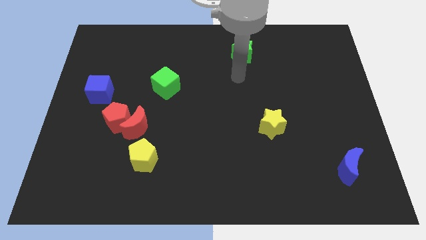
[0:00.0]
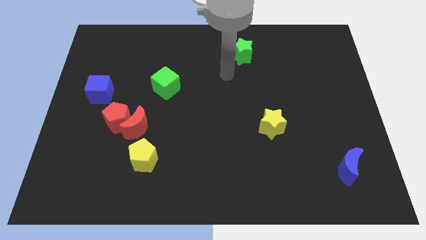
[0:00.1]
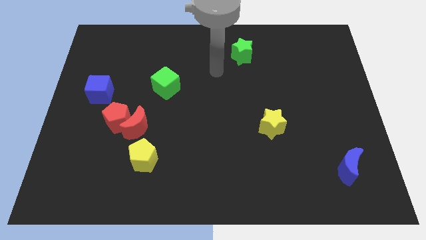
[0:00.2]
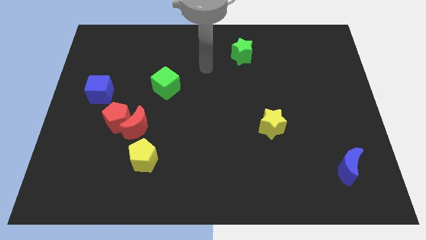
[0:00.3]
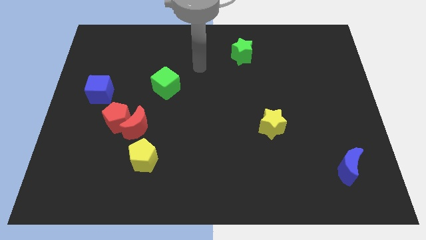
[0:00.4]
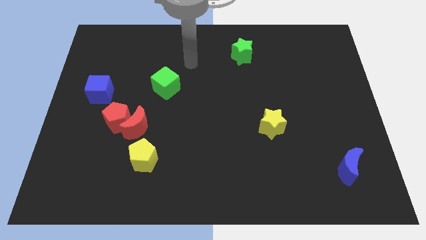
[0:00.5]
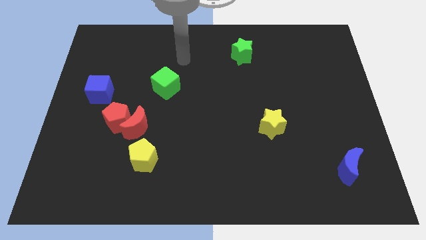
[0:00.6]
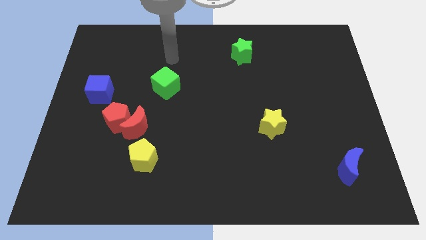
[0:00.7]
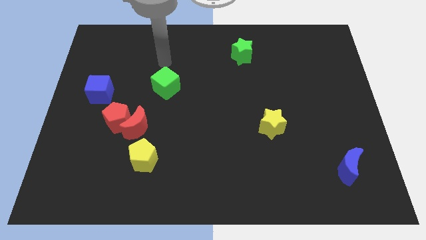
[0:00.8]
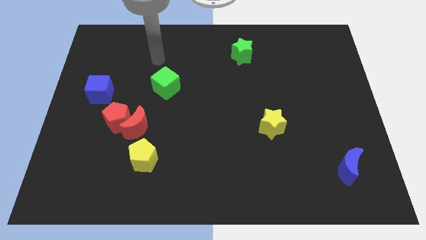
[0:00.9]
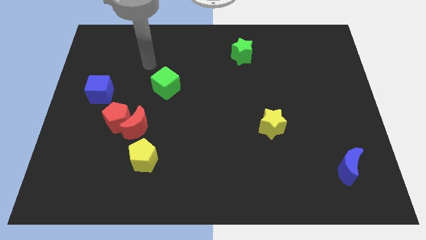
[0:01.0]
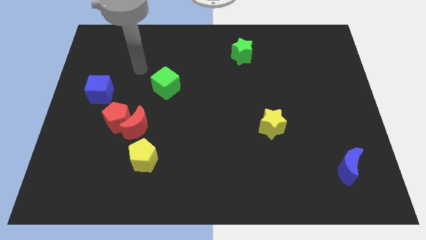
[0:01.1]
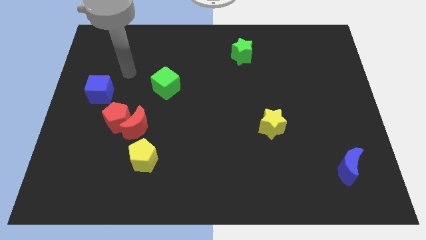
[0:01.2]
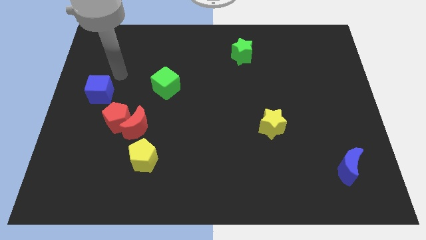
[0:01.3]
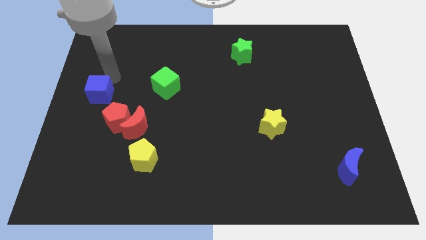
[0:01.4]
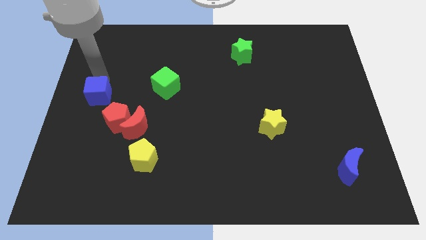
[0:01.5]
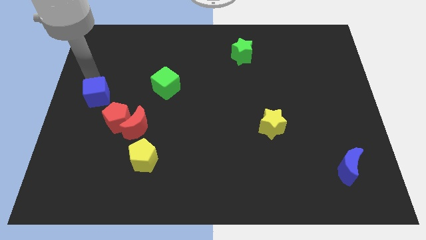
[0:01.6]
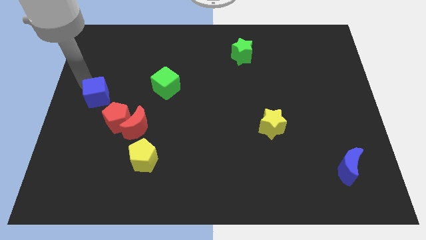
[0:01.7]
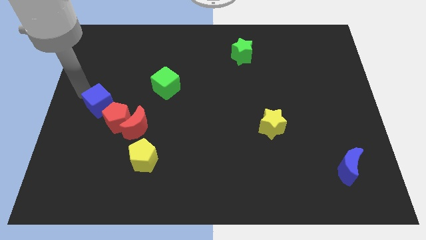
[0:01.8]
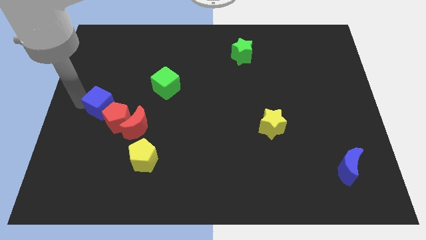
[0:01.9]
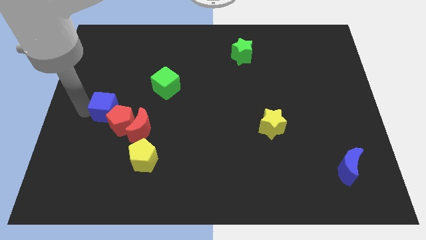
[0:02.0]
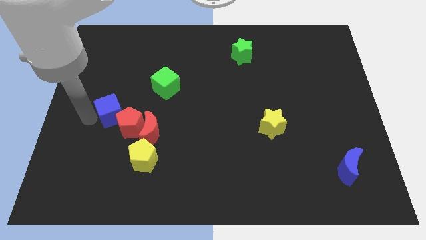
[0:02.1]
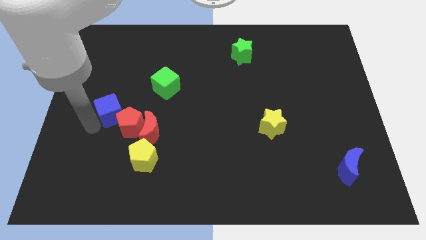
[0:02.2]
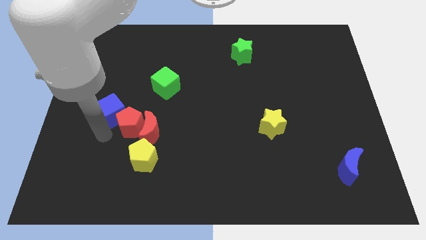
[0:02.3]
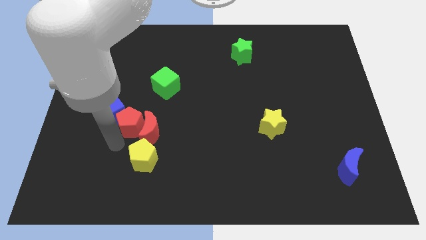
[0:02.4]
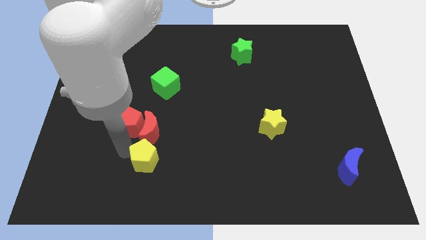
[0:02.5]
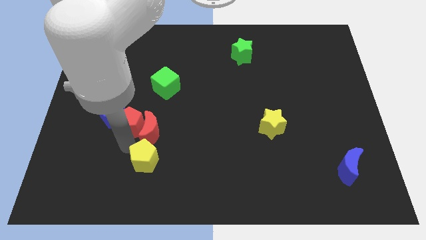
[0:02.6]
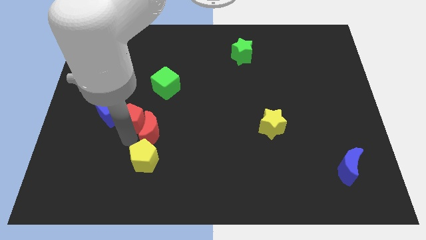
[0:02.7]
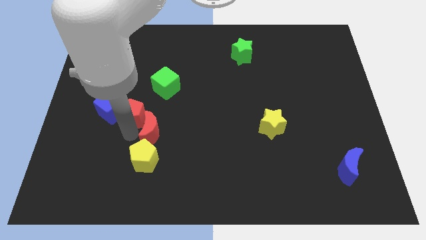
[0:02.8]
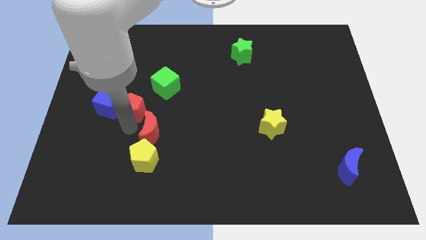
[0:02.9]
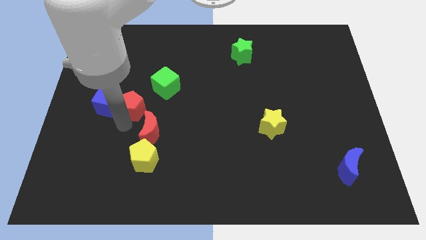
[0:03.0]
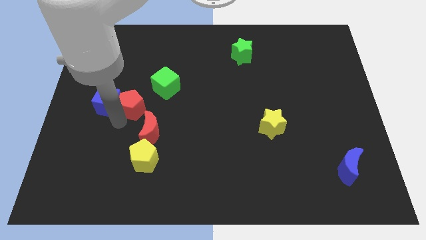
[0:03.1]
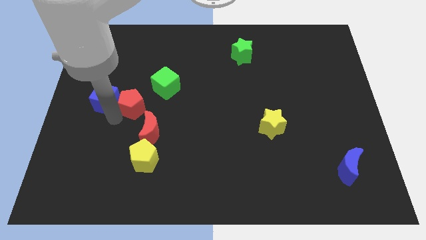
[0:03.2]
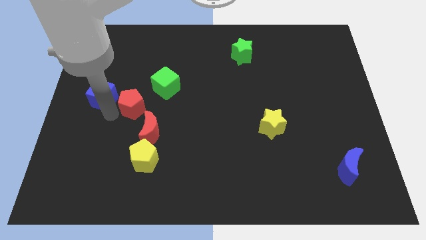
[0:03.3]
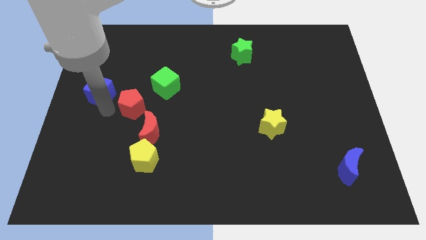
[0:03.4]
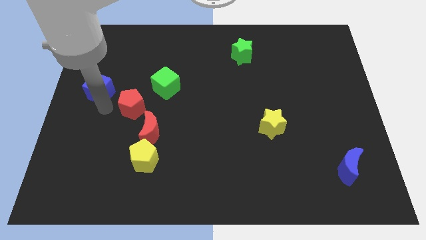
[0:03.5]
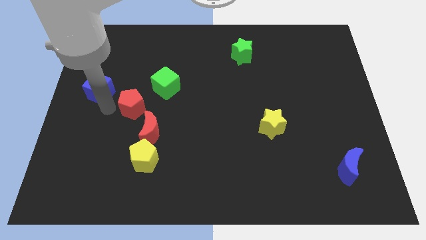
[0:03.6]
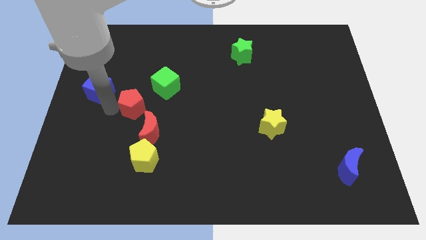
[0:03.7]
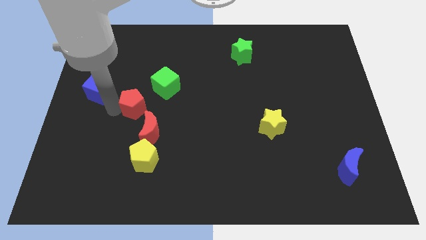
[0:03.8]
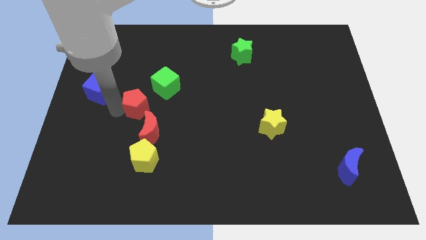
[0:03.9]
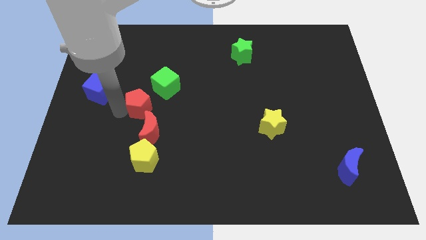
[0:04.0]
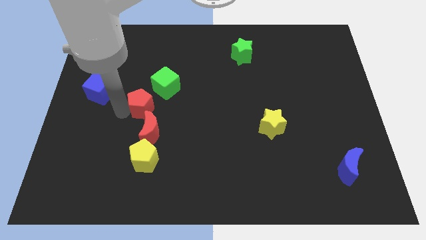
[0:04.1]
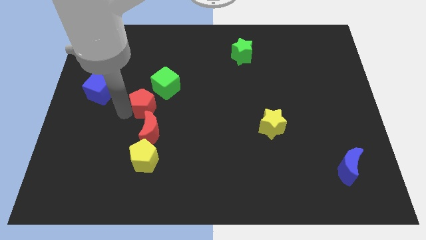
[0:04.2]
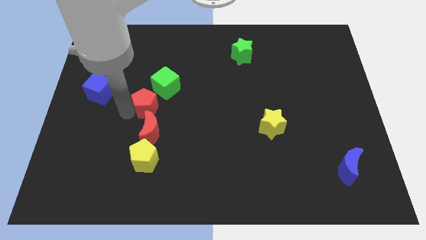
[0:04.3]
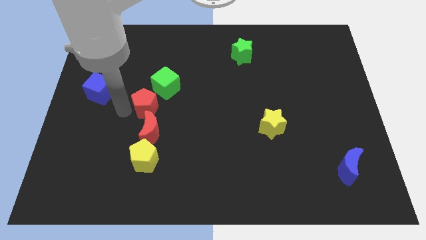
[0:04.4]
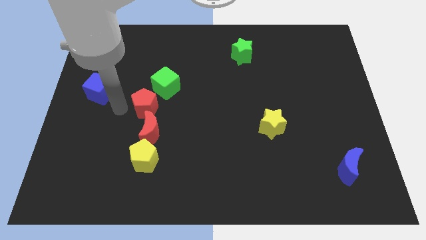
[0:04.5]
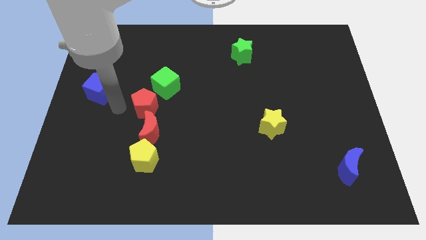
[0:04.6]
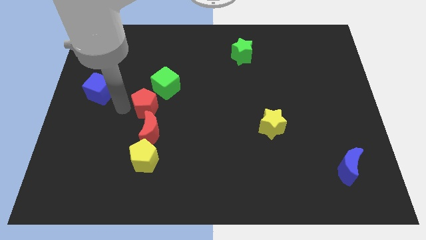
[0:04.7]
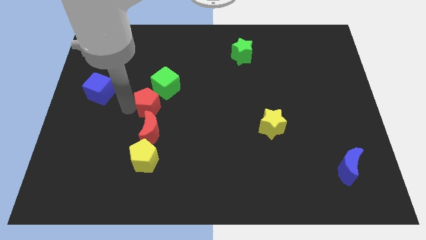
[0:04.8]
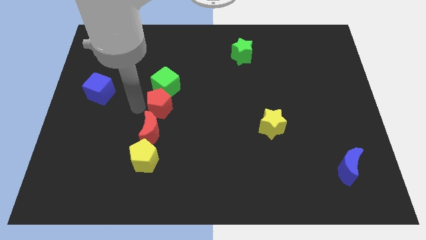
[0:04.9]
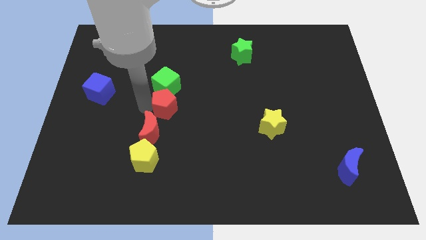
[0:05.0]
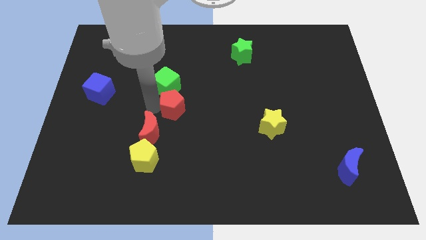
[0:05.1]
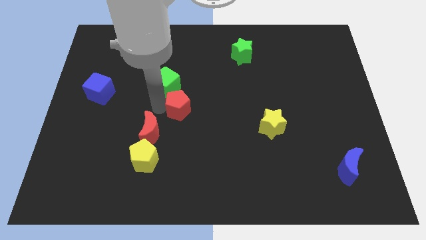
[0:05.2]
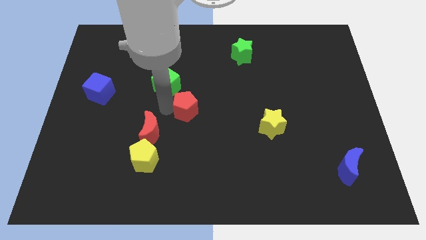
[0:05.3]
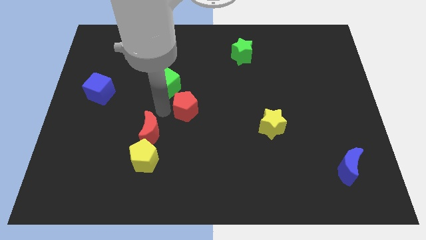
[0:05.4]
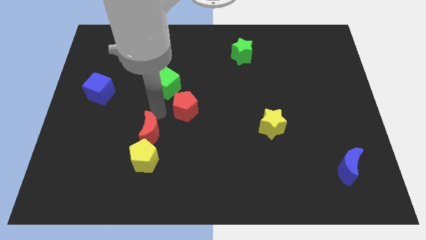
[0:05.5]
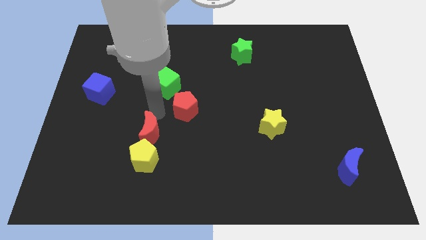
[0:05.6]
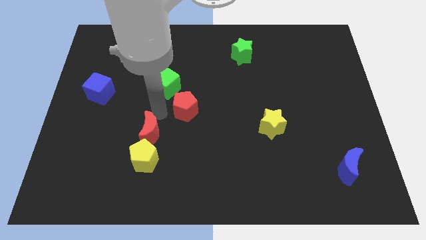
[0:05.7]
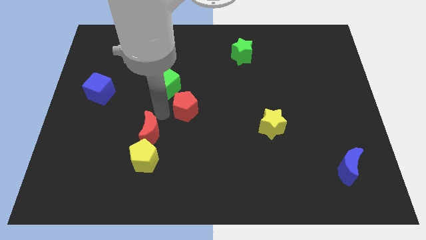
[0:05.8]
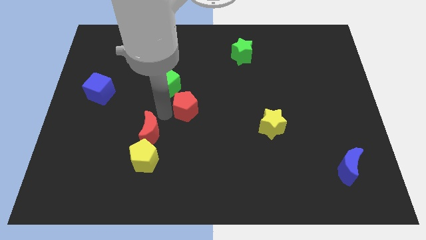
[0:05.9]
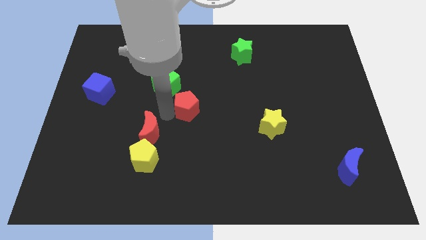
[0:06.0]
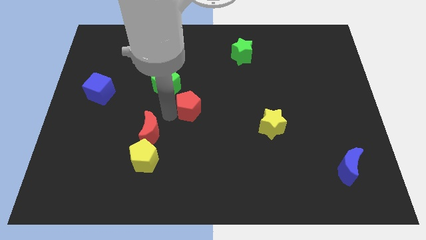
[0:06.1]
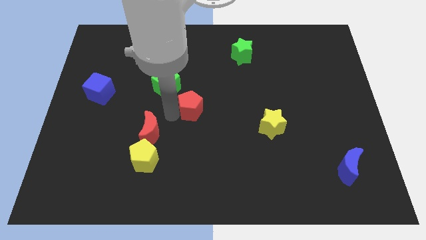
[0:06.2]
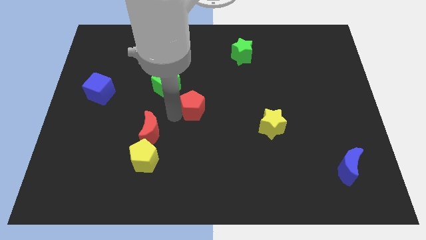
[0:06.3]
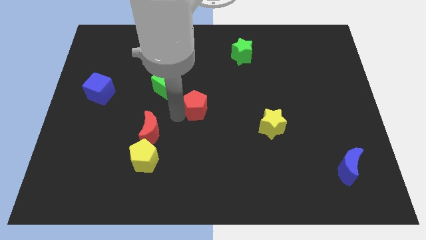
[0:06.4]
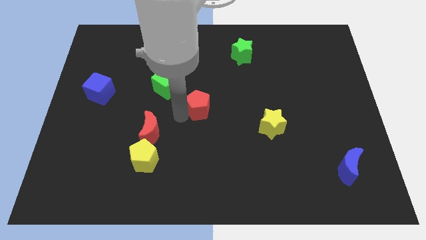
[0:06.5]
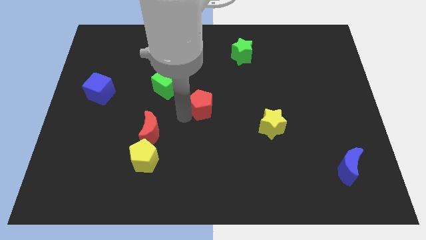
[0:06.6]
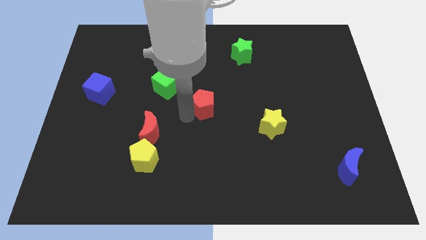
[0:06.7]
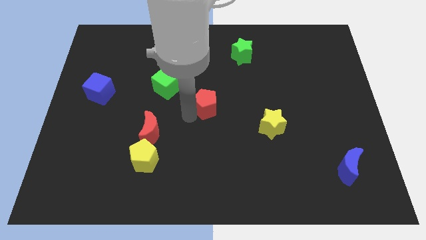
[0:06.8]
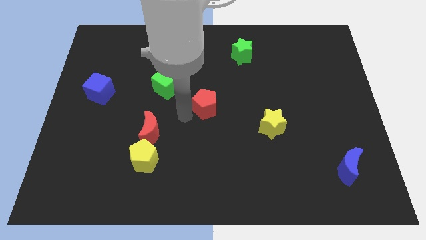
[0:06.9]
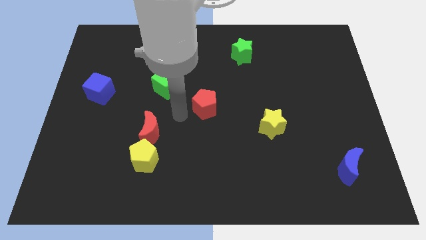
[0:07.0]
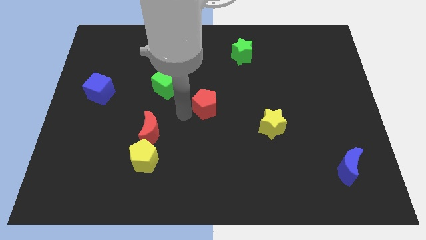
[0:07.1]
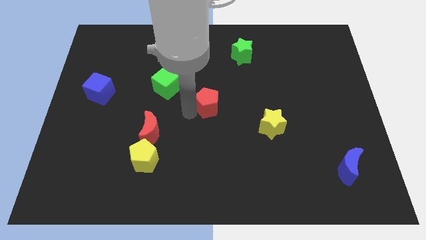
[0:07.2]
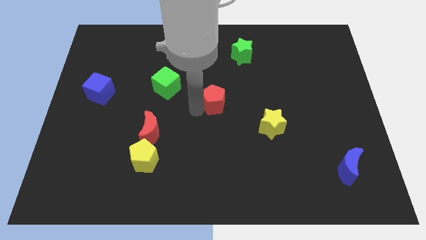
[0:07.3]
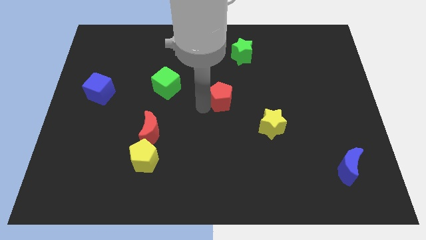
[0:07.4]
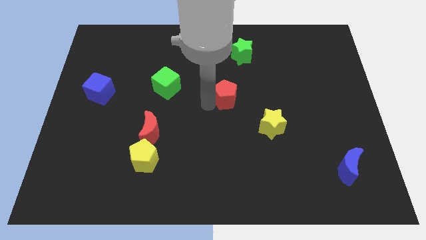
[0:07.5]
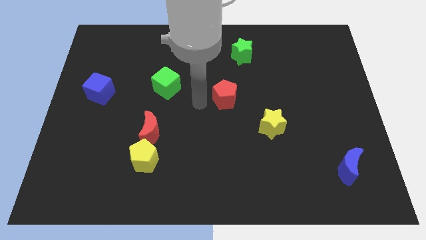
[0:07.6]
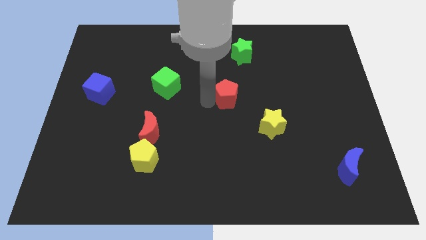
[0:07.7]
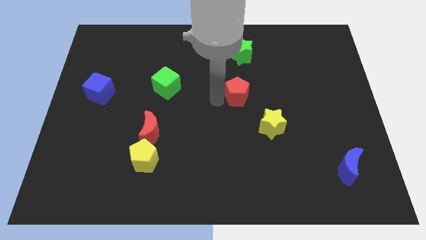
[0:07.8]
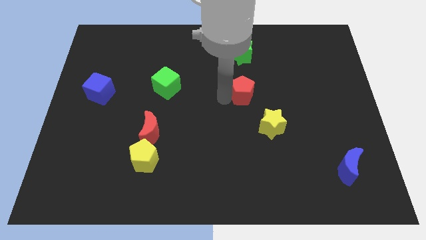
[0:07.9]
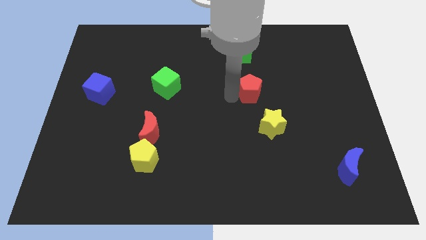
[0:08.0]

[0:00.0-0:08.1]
put the red pentagon above the yellow star
